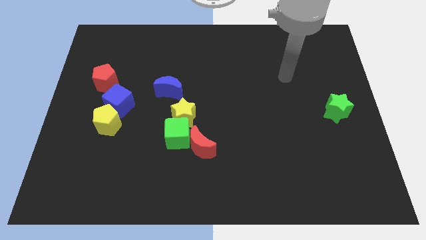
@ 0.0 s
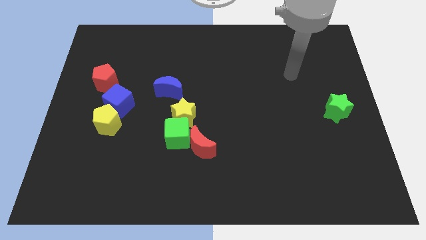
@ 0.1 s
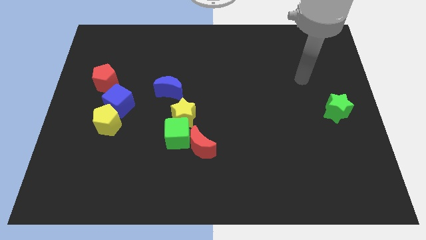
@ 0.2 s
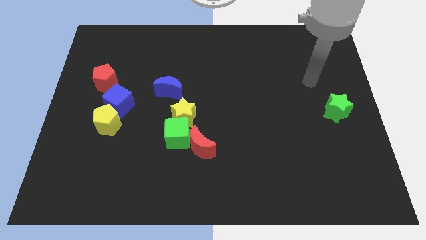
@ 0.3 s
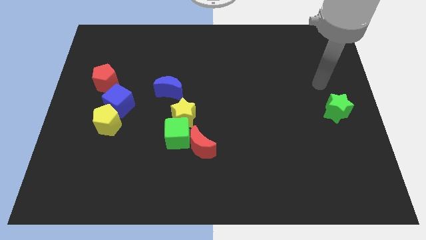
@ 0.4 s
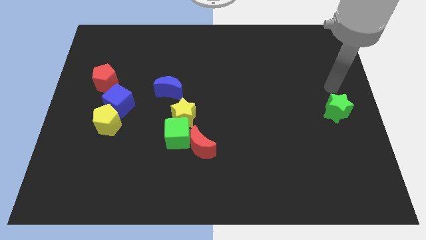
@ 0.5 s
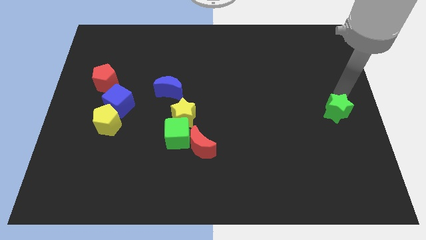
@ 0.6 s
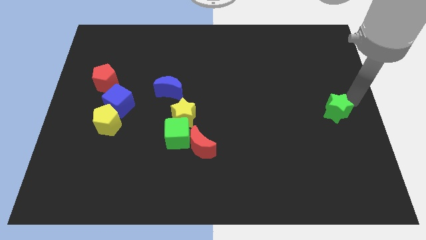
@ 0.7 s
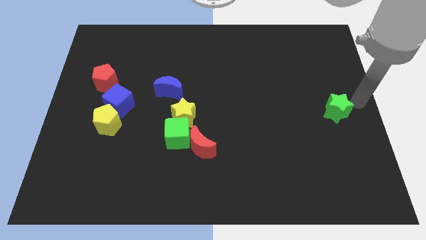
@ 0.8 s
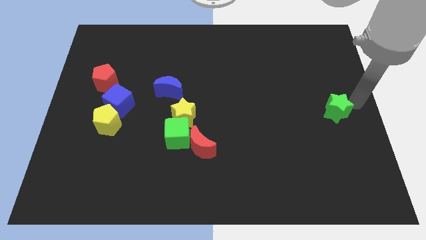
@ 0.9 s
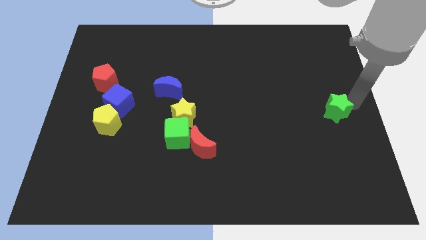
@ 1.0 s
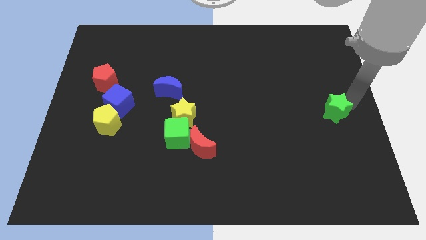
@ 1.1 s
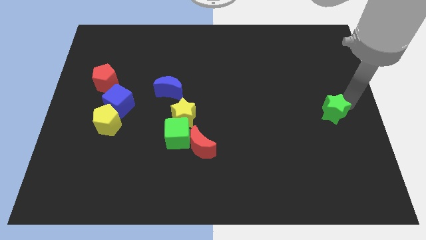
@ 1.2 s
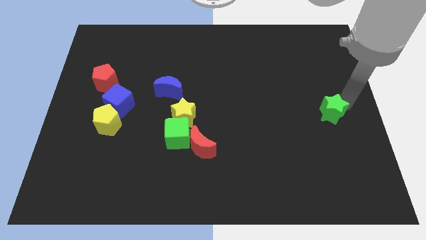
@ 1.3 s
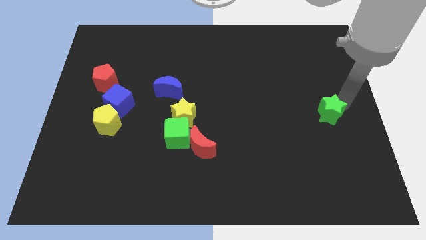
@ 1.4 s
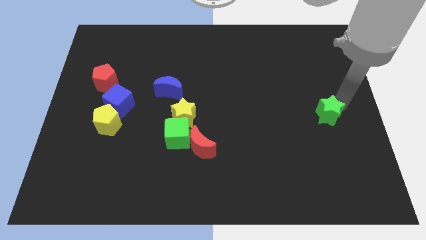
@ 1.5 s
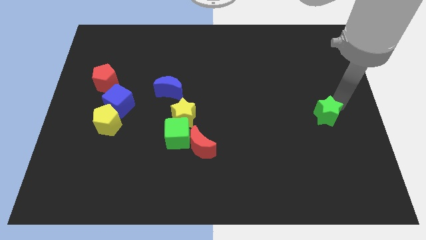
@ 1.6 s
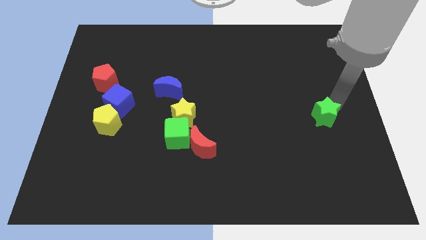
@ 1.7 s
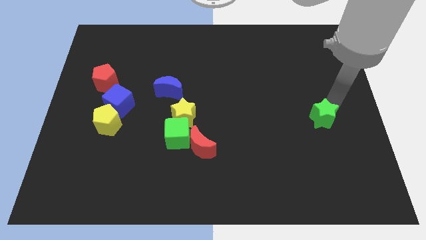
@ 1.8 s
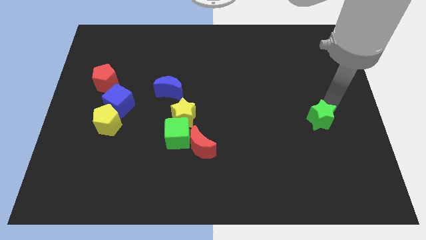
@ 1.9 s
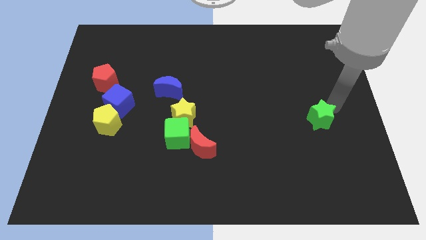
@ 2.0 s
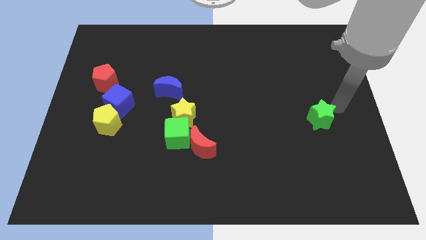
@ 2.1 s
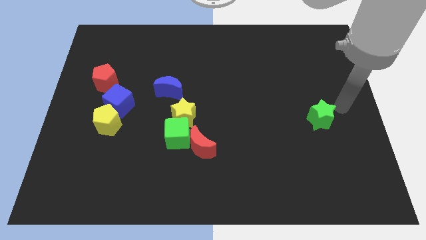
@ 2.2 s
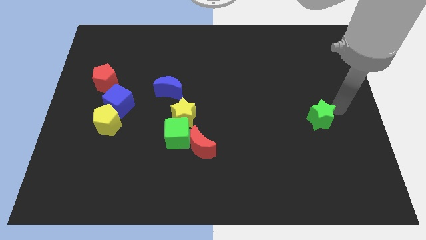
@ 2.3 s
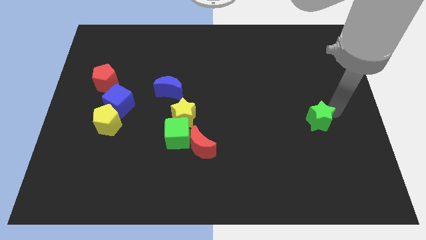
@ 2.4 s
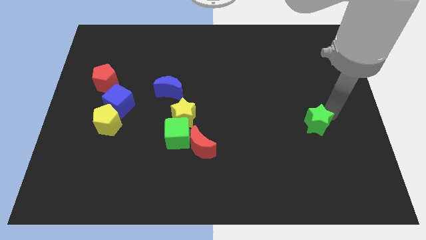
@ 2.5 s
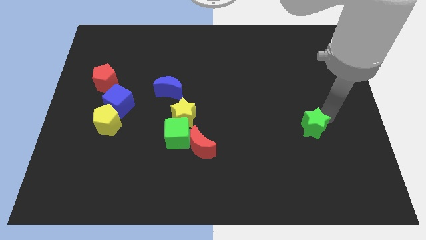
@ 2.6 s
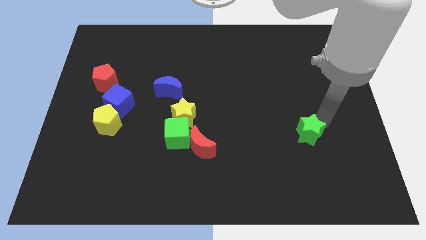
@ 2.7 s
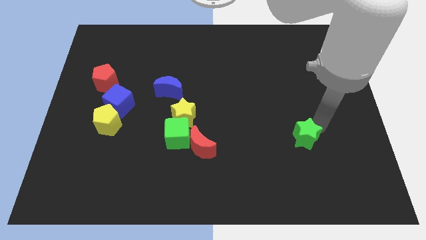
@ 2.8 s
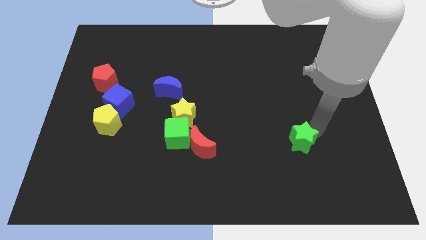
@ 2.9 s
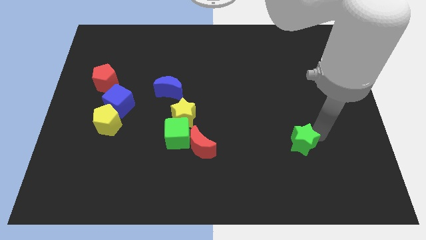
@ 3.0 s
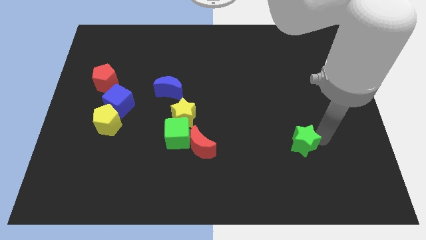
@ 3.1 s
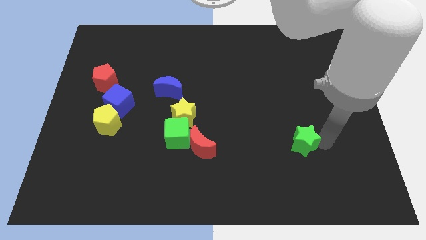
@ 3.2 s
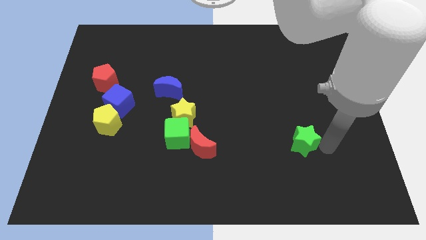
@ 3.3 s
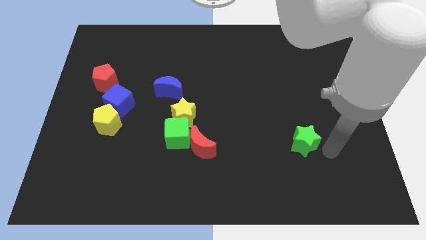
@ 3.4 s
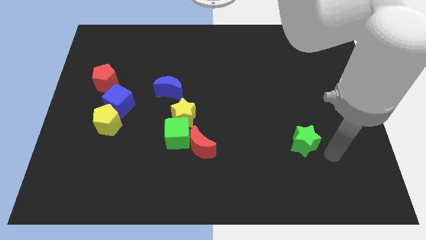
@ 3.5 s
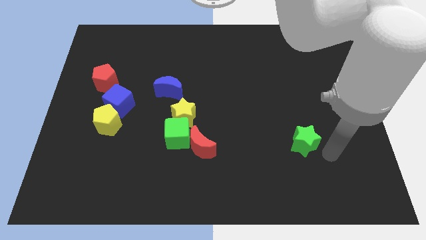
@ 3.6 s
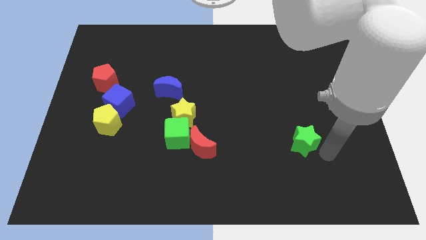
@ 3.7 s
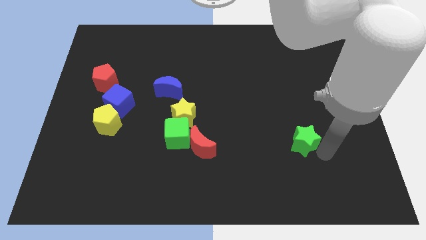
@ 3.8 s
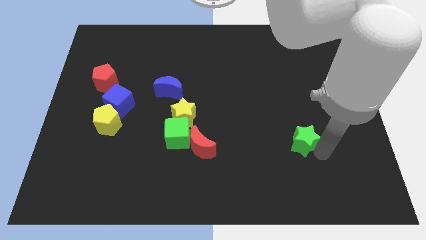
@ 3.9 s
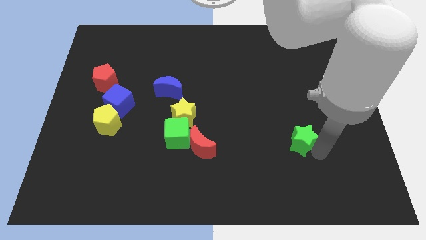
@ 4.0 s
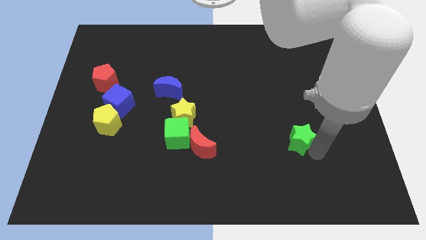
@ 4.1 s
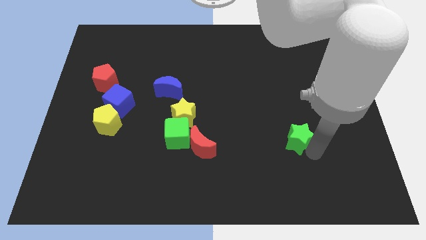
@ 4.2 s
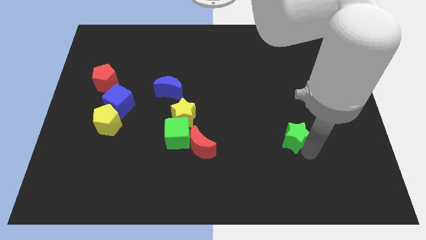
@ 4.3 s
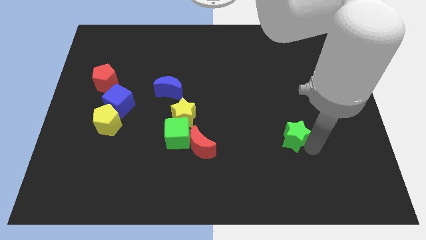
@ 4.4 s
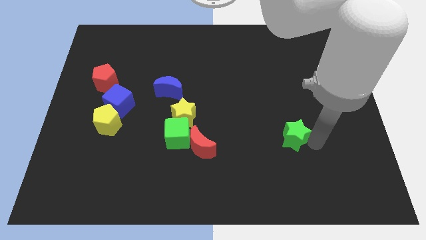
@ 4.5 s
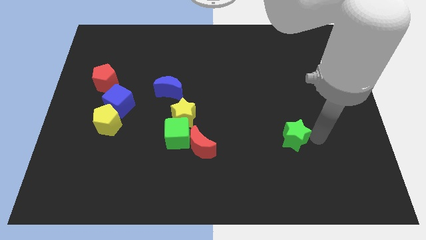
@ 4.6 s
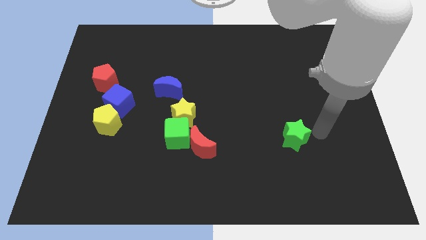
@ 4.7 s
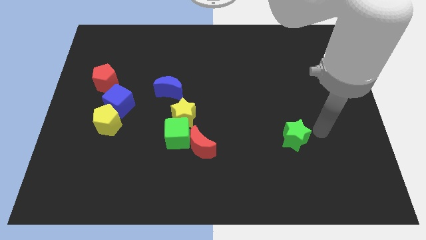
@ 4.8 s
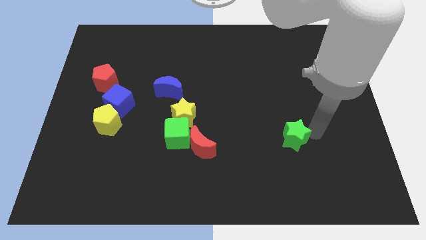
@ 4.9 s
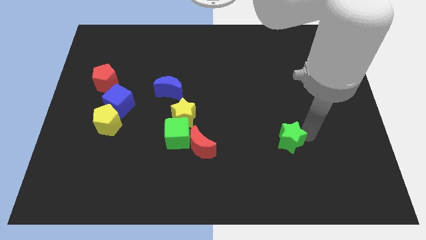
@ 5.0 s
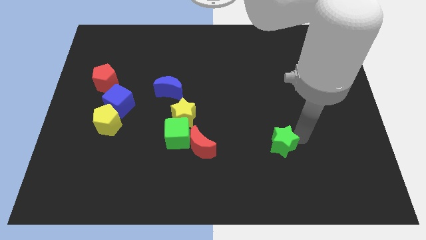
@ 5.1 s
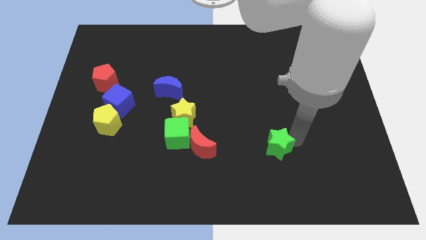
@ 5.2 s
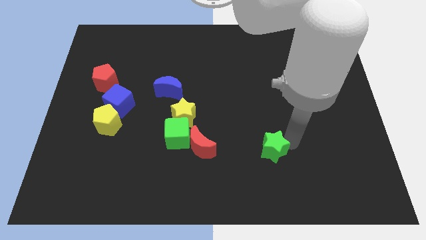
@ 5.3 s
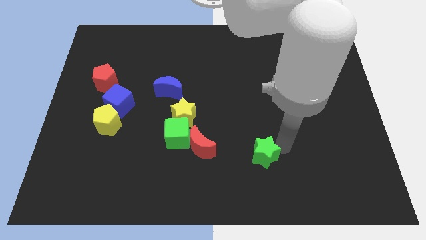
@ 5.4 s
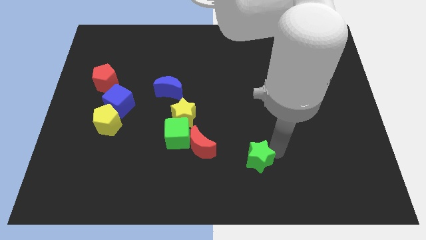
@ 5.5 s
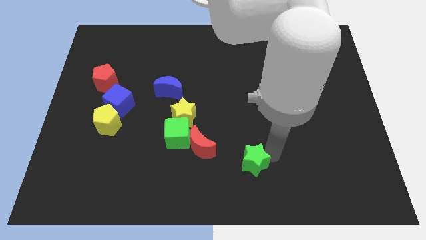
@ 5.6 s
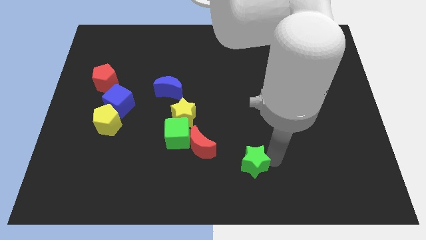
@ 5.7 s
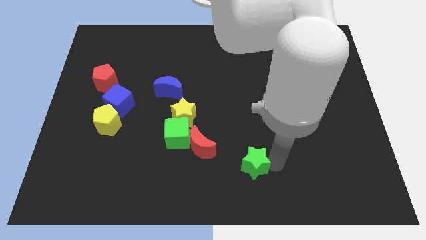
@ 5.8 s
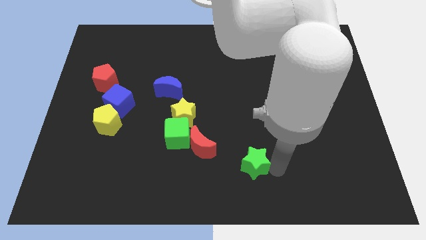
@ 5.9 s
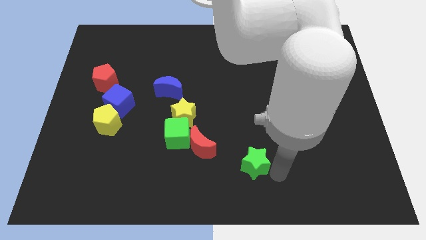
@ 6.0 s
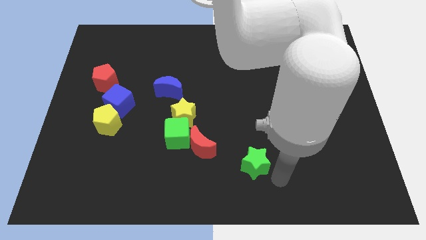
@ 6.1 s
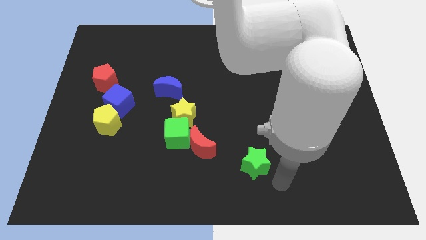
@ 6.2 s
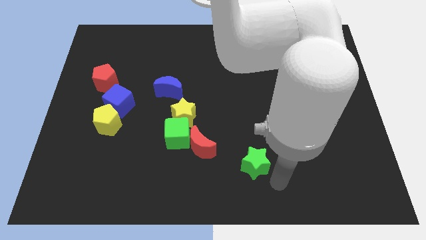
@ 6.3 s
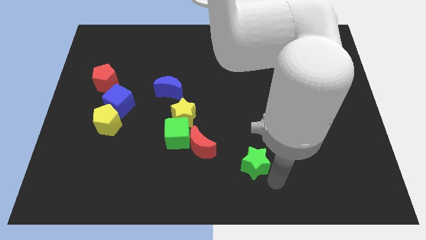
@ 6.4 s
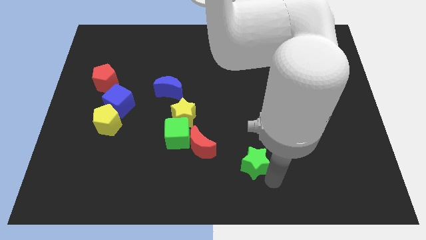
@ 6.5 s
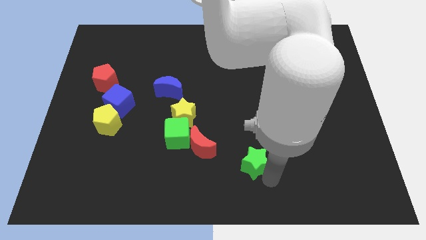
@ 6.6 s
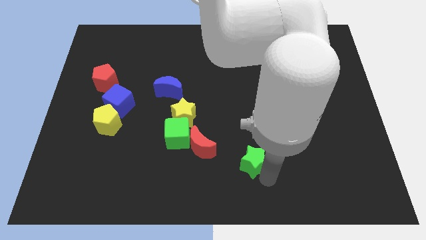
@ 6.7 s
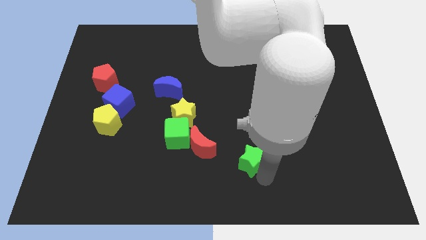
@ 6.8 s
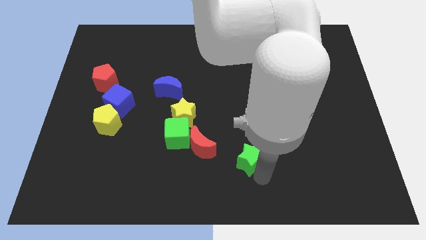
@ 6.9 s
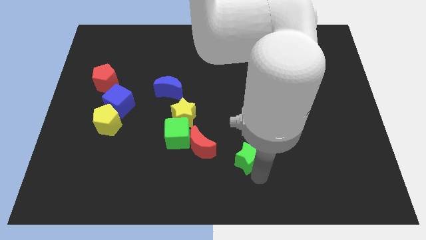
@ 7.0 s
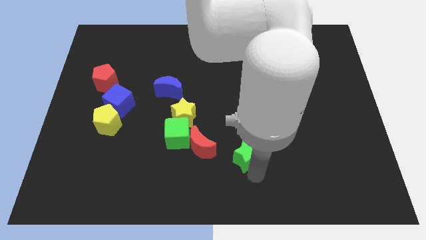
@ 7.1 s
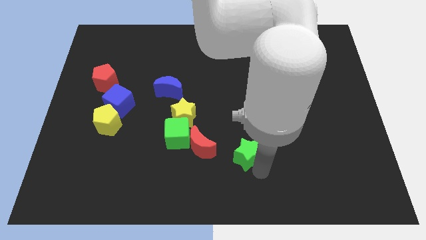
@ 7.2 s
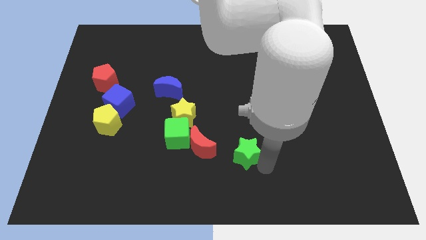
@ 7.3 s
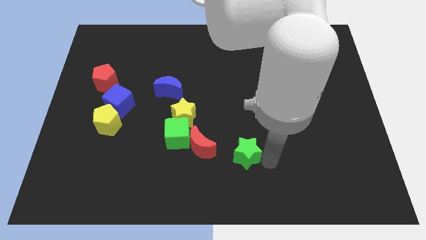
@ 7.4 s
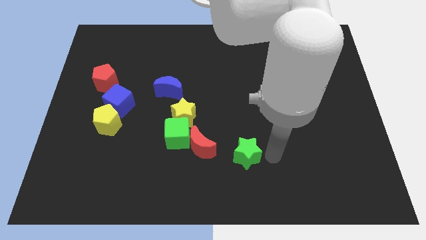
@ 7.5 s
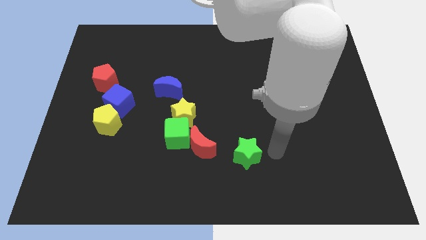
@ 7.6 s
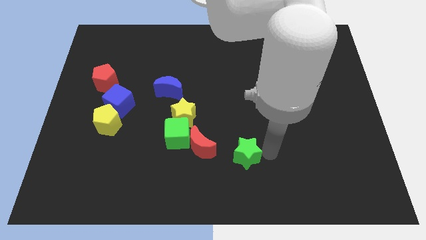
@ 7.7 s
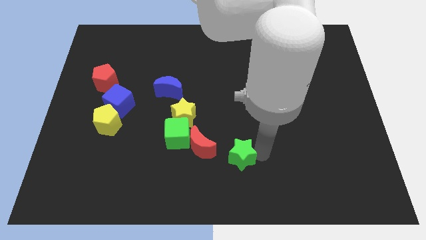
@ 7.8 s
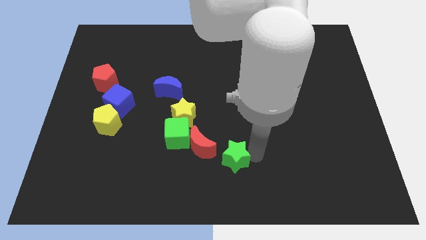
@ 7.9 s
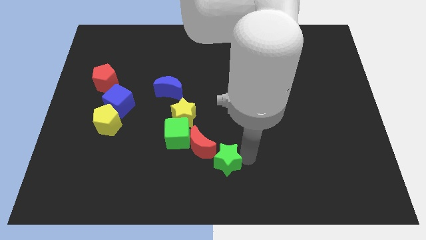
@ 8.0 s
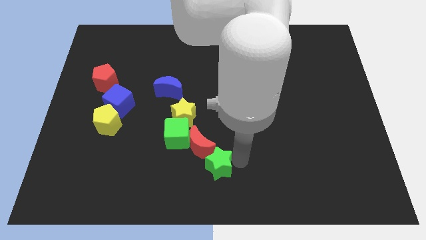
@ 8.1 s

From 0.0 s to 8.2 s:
move the green star to the bottom right of the green cube
